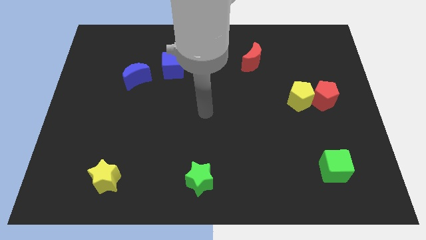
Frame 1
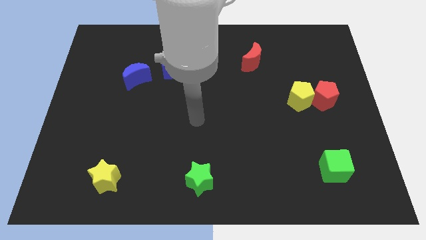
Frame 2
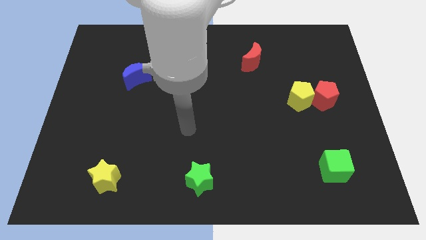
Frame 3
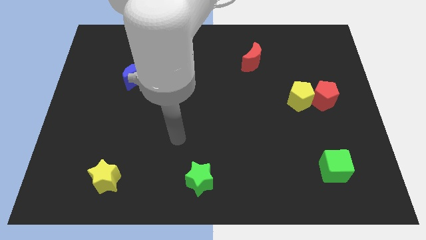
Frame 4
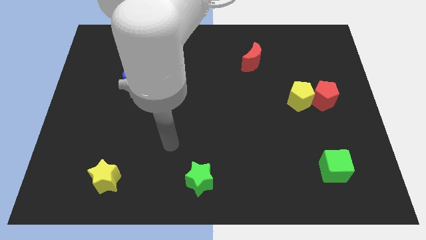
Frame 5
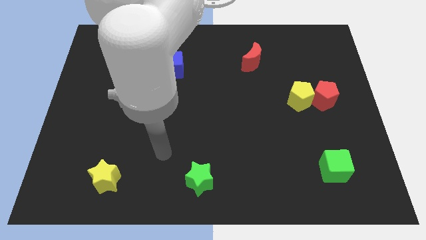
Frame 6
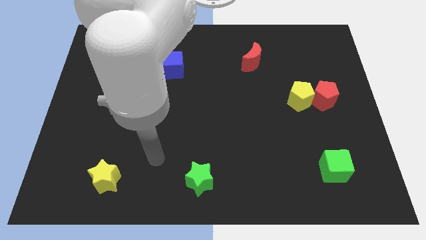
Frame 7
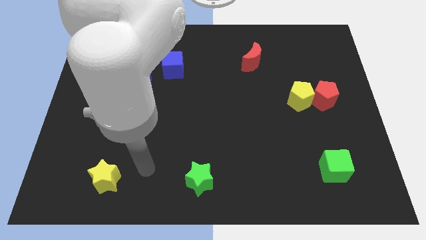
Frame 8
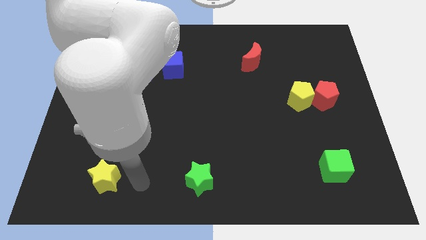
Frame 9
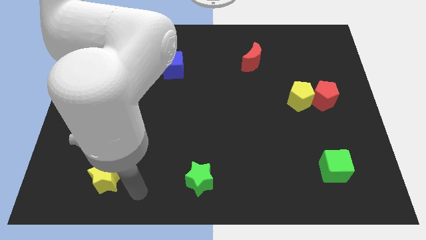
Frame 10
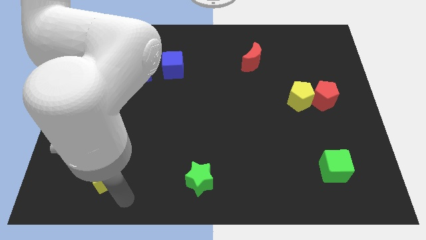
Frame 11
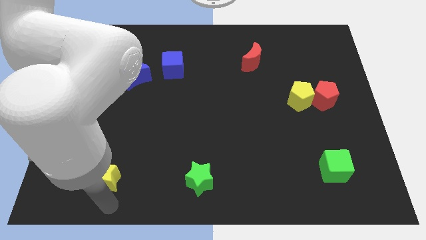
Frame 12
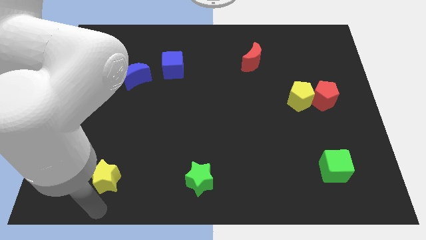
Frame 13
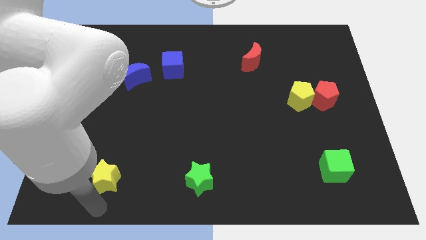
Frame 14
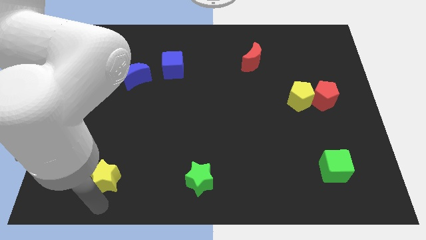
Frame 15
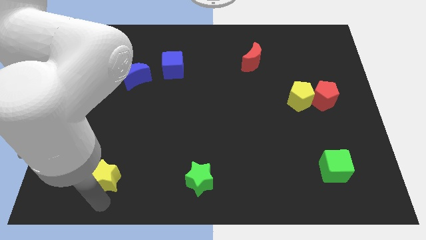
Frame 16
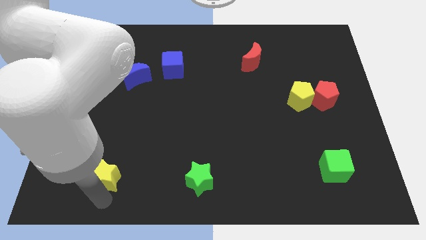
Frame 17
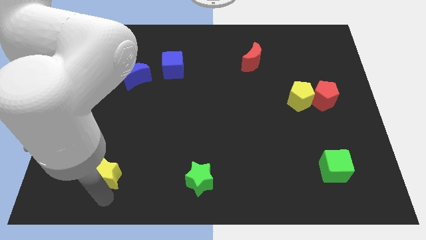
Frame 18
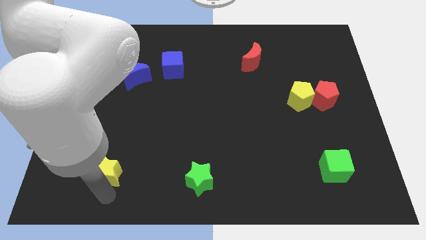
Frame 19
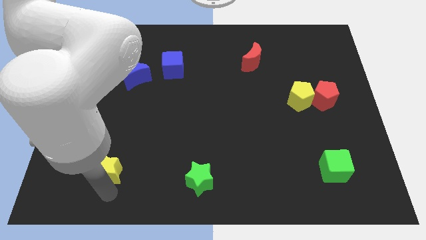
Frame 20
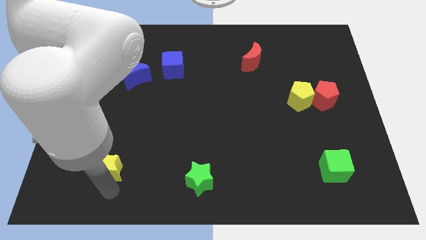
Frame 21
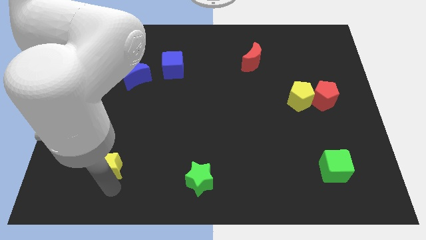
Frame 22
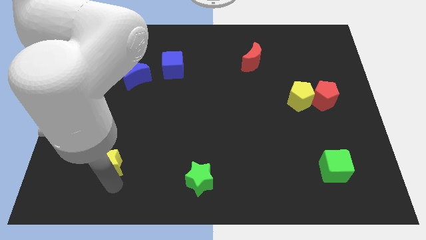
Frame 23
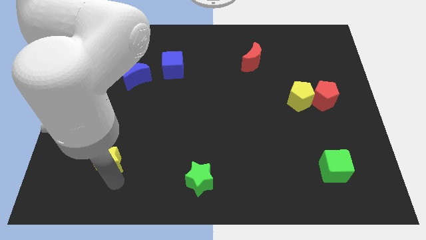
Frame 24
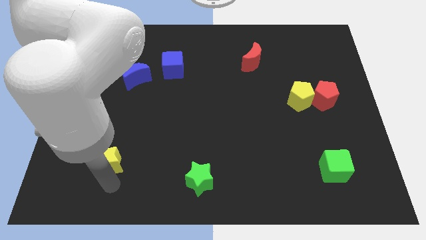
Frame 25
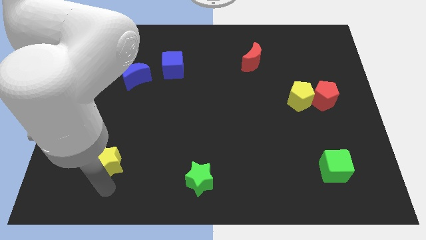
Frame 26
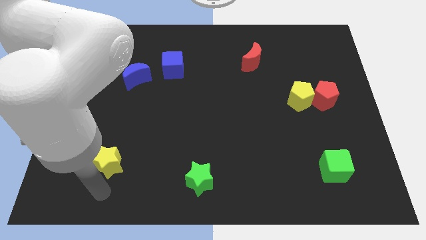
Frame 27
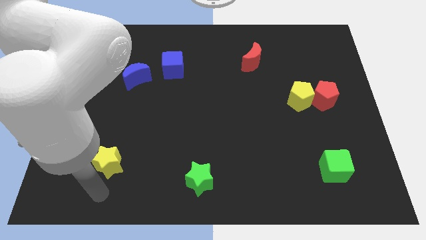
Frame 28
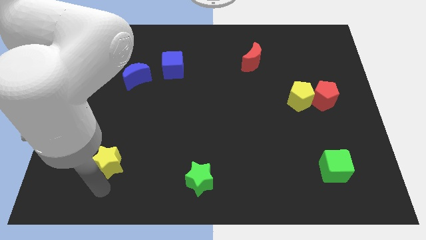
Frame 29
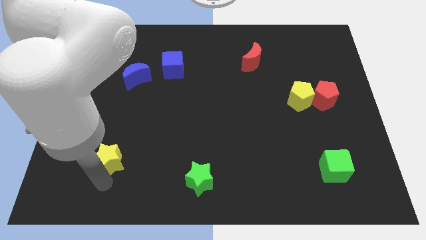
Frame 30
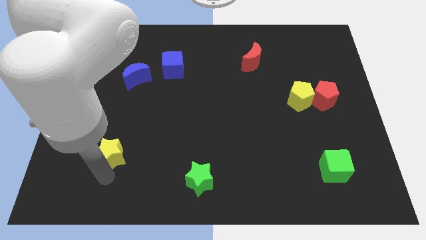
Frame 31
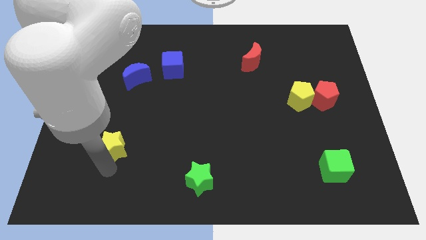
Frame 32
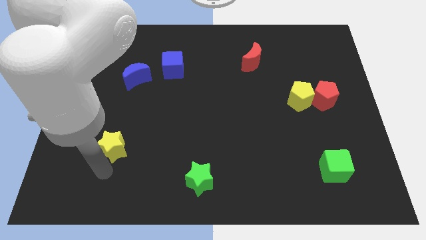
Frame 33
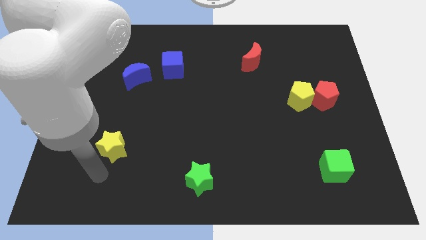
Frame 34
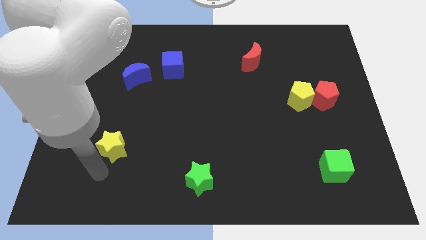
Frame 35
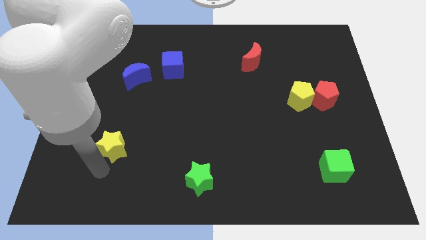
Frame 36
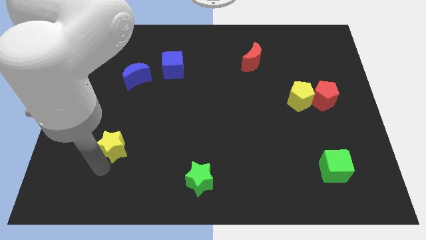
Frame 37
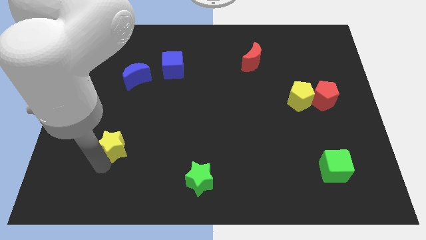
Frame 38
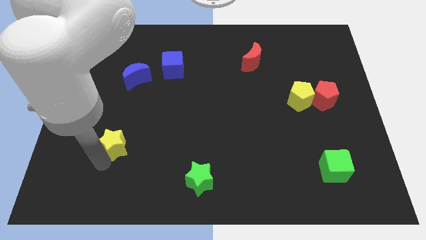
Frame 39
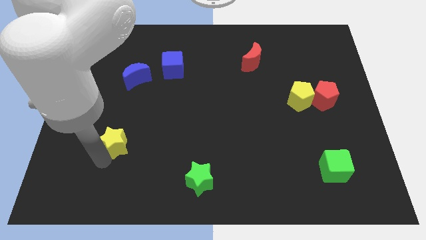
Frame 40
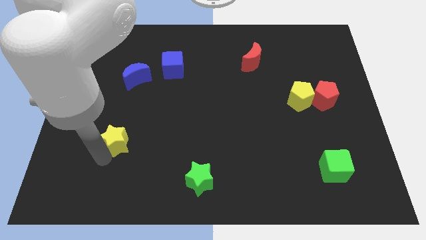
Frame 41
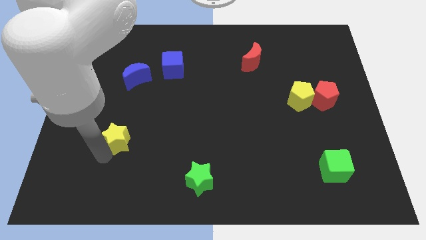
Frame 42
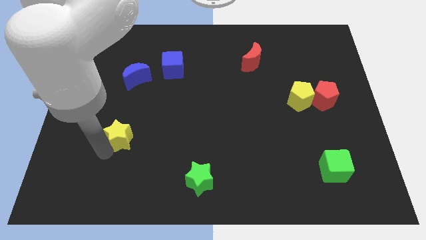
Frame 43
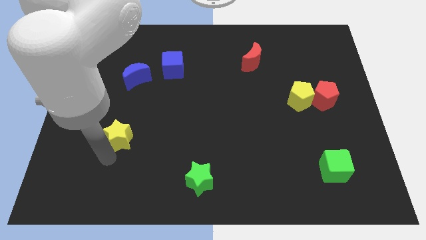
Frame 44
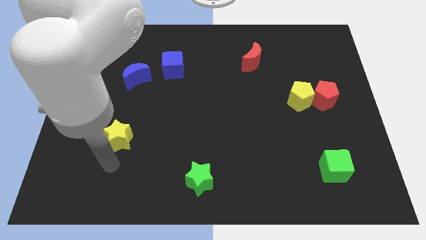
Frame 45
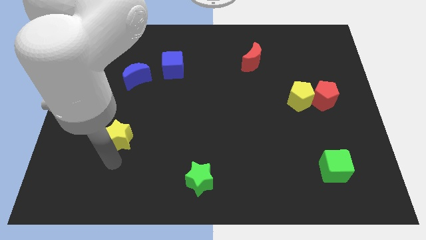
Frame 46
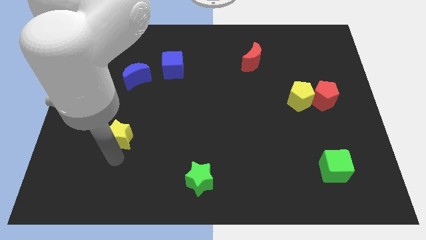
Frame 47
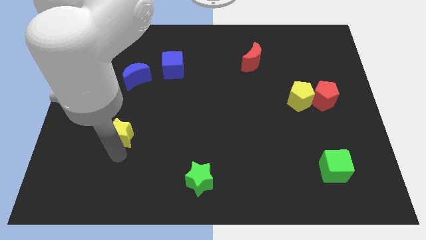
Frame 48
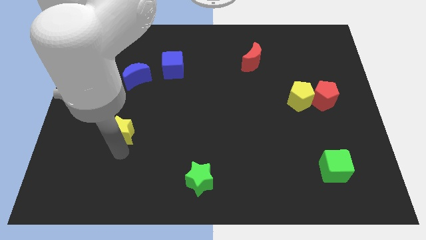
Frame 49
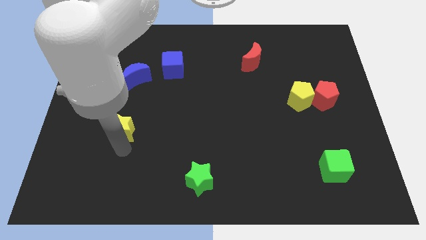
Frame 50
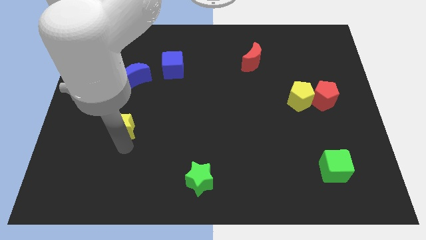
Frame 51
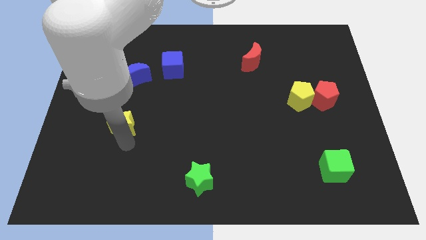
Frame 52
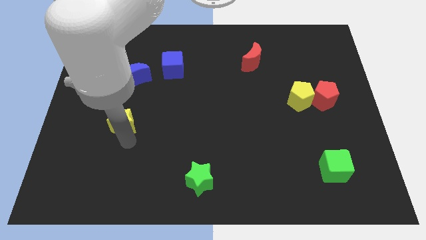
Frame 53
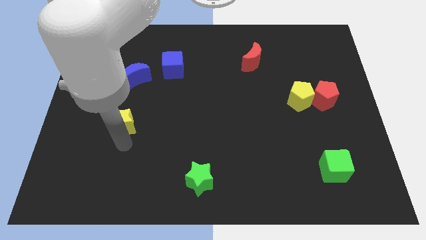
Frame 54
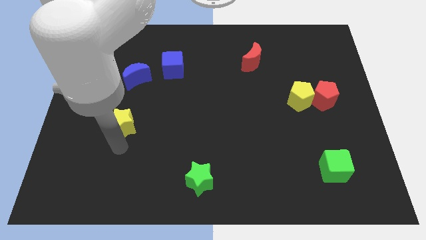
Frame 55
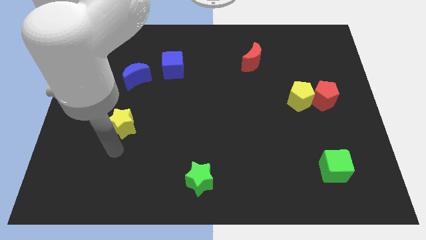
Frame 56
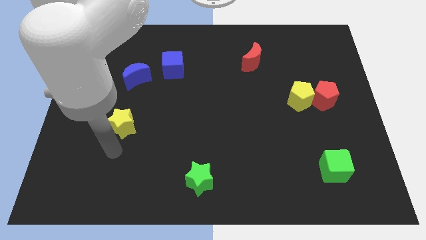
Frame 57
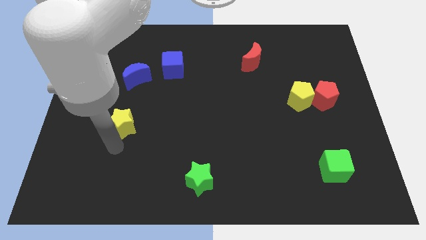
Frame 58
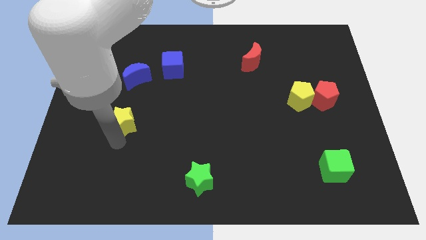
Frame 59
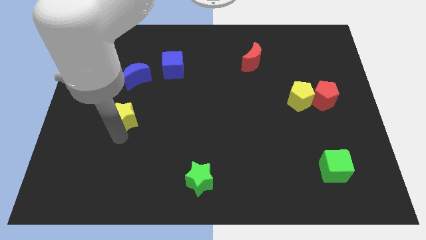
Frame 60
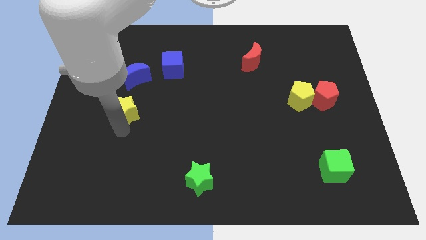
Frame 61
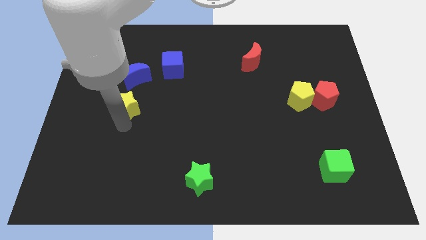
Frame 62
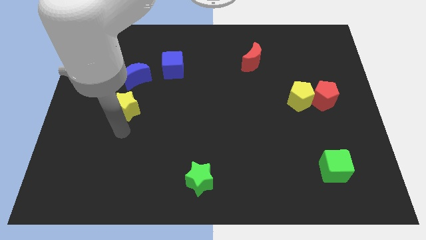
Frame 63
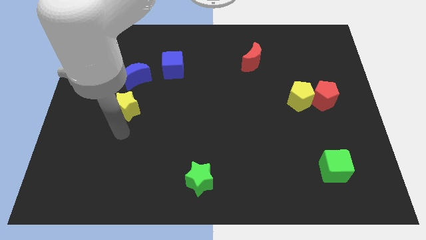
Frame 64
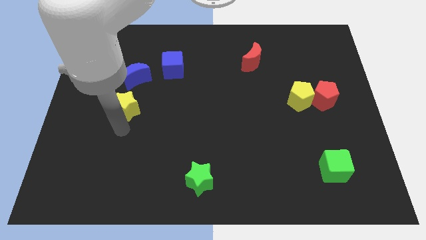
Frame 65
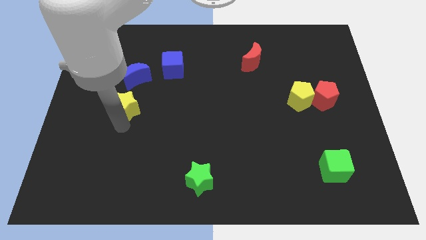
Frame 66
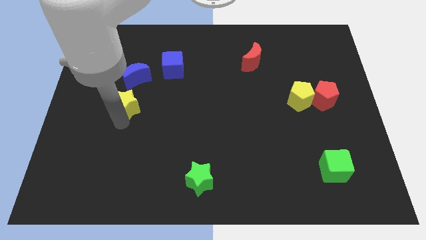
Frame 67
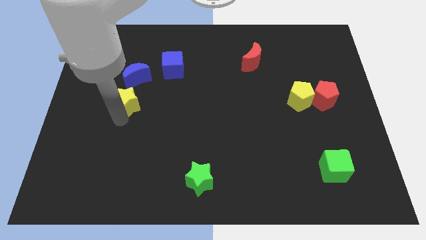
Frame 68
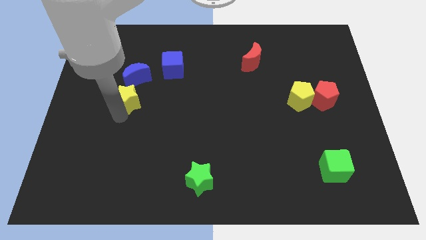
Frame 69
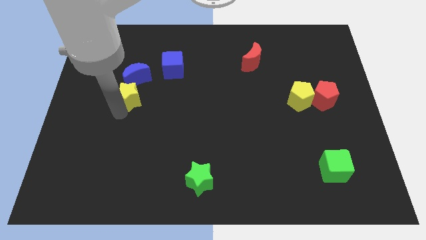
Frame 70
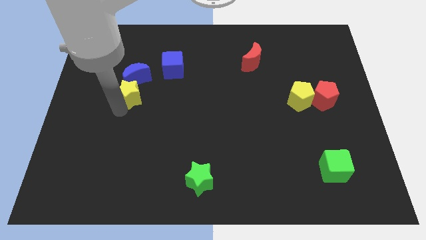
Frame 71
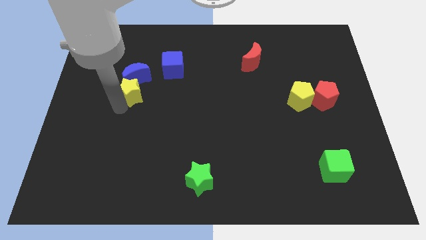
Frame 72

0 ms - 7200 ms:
move the yellow star close to the blue moon
